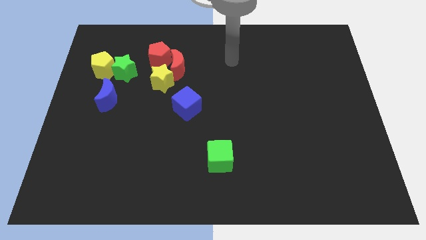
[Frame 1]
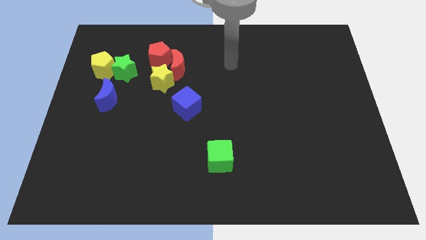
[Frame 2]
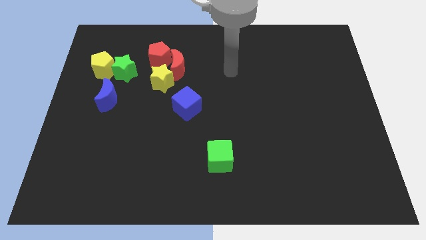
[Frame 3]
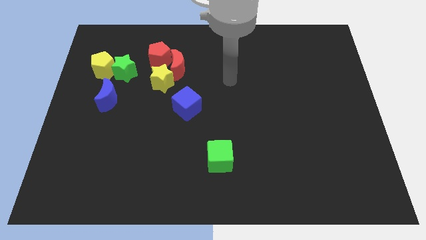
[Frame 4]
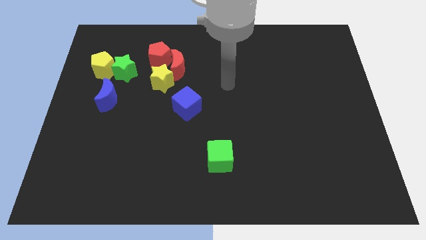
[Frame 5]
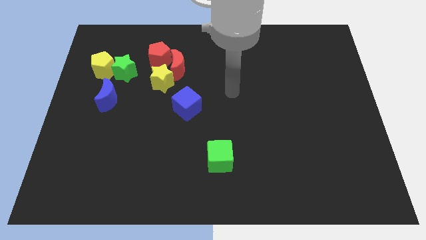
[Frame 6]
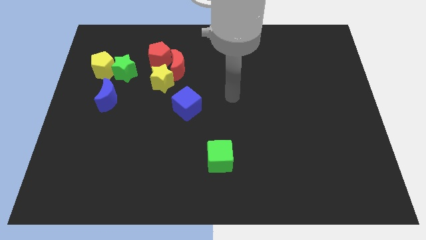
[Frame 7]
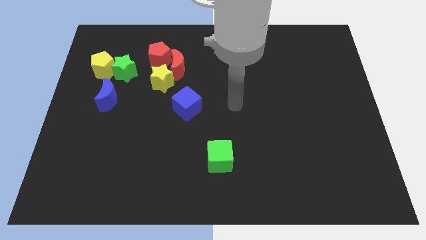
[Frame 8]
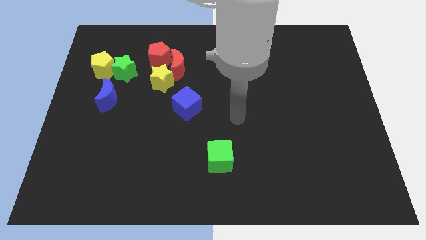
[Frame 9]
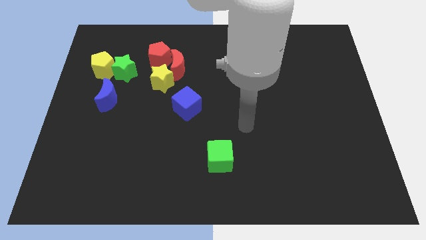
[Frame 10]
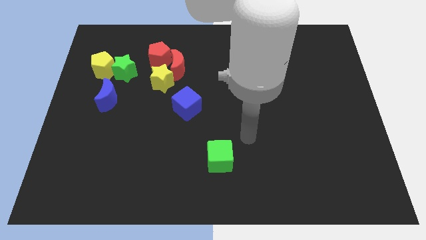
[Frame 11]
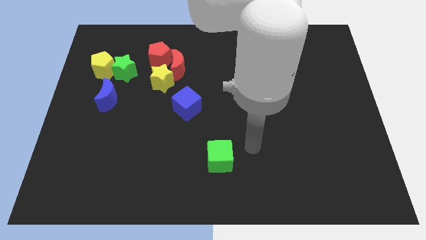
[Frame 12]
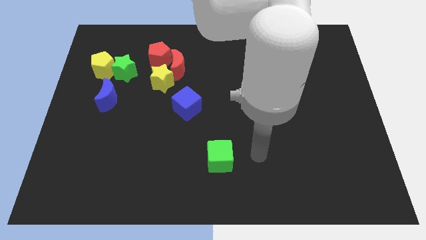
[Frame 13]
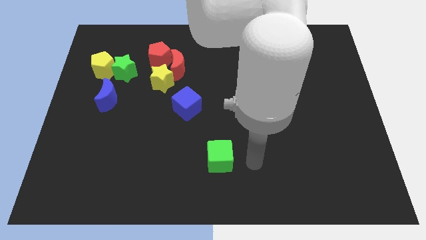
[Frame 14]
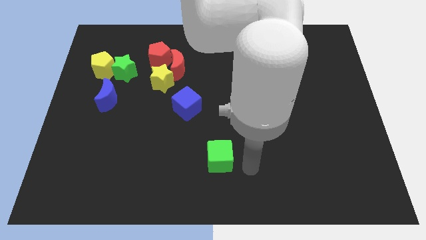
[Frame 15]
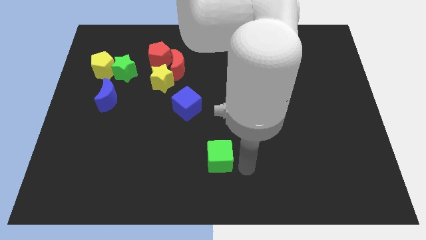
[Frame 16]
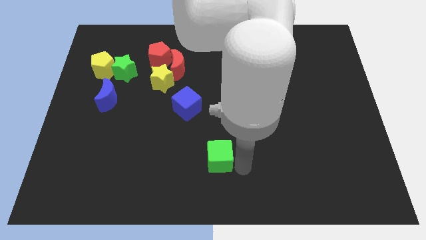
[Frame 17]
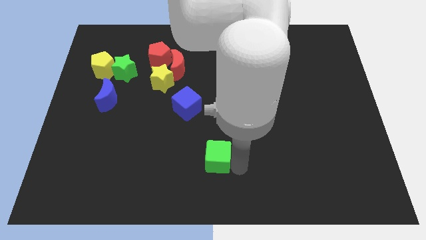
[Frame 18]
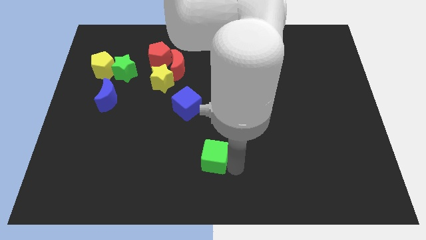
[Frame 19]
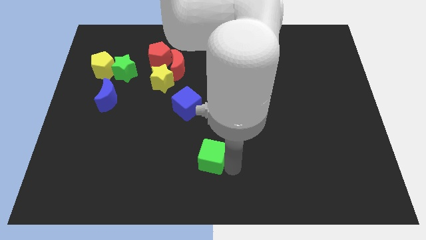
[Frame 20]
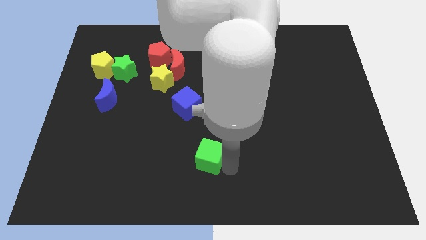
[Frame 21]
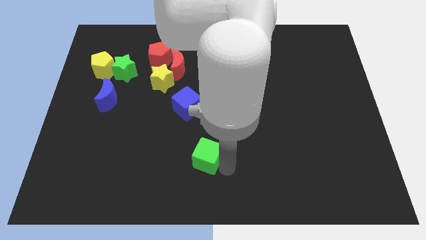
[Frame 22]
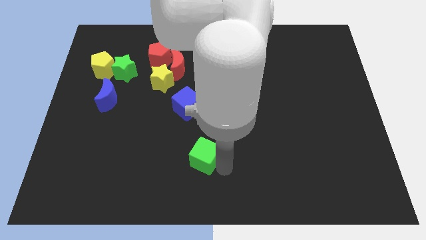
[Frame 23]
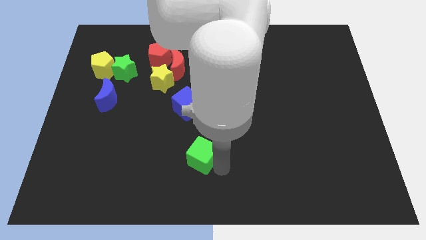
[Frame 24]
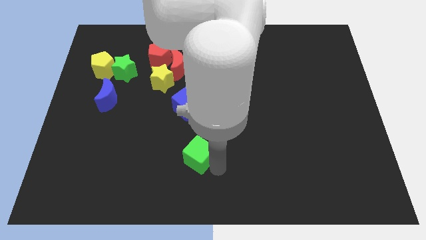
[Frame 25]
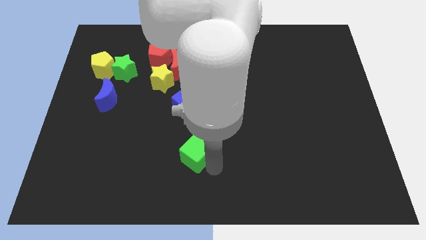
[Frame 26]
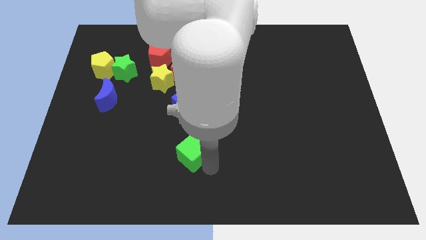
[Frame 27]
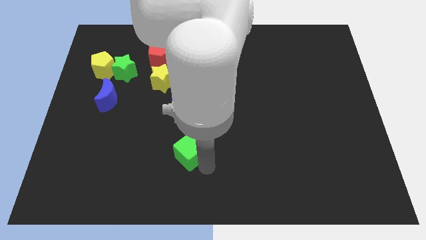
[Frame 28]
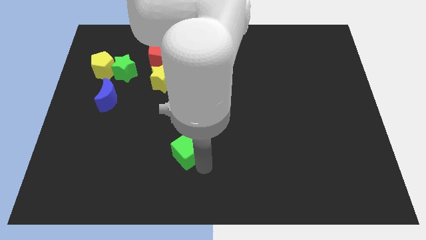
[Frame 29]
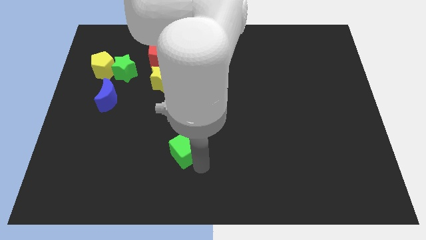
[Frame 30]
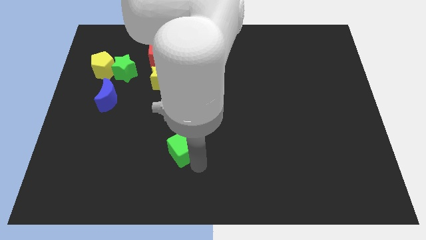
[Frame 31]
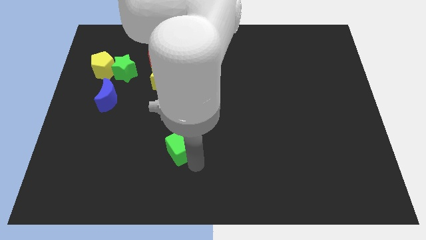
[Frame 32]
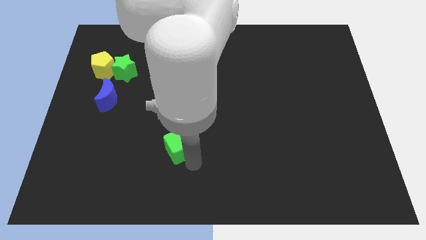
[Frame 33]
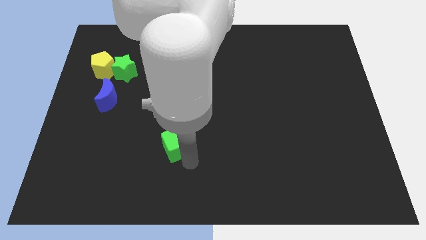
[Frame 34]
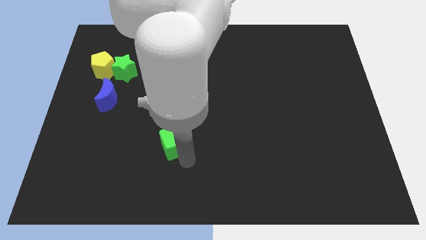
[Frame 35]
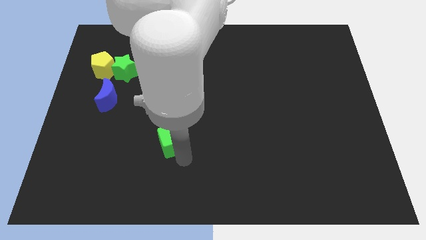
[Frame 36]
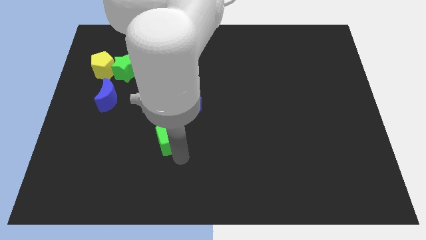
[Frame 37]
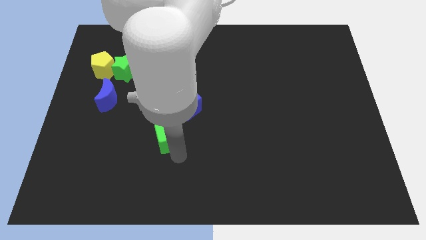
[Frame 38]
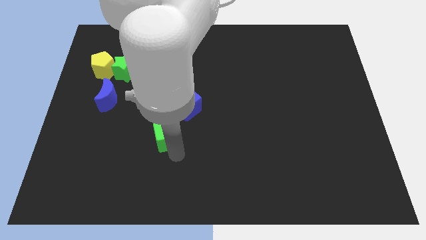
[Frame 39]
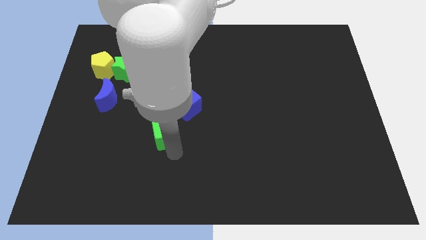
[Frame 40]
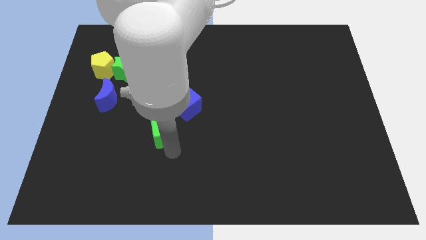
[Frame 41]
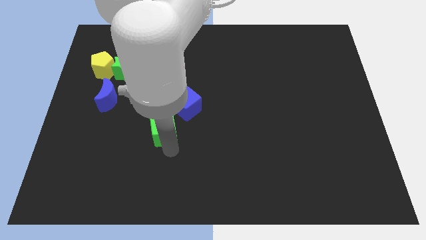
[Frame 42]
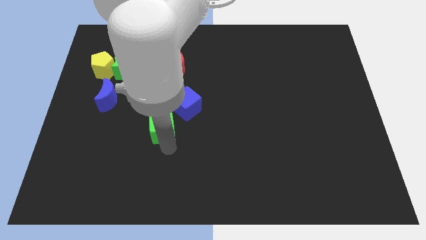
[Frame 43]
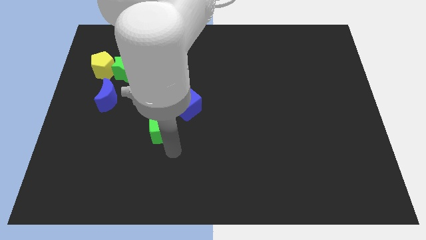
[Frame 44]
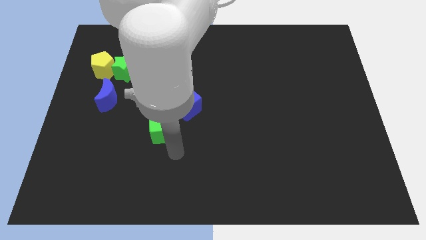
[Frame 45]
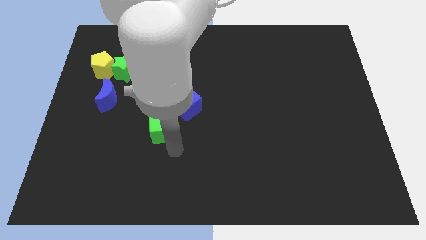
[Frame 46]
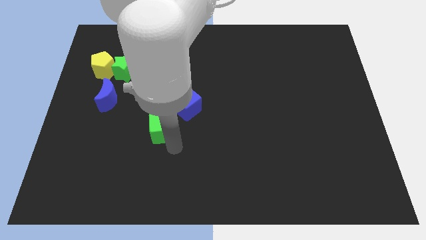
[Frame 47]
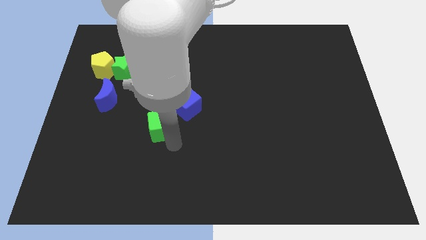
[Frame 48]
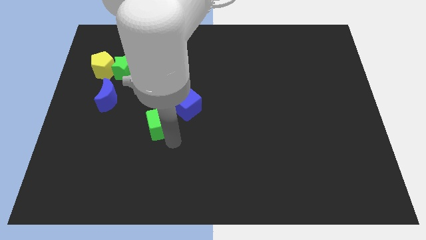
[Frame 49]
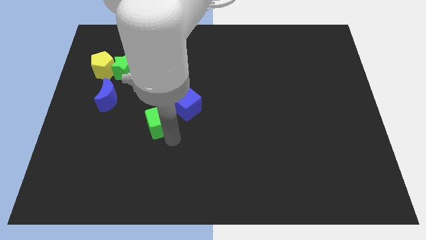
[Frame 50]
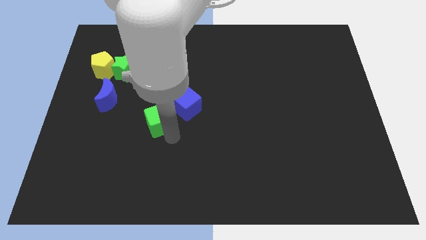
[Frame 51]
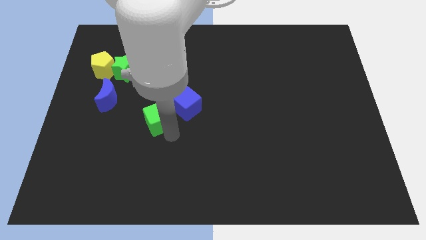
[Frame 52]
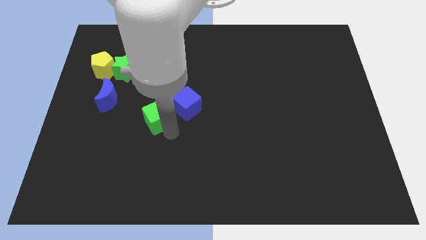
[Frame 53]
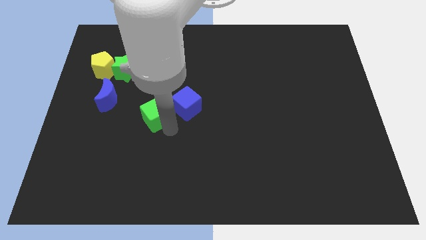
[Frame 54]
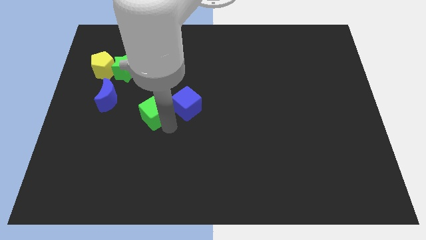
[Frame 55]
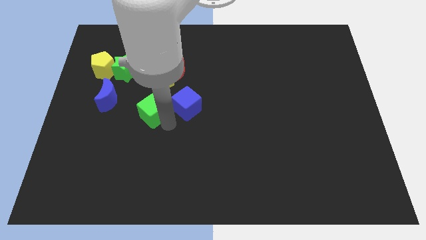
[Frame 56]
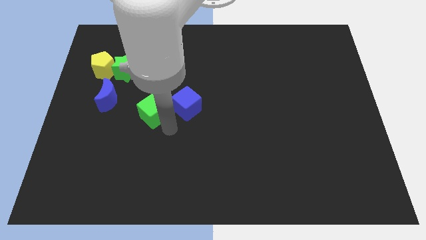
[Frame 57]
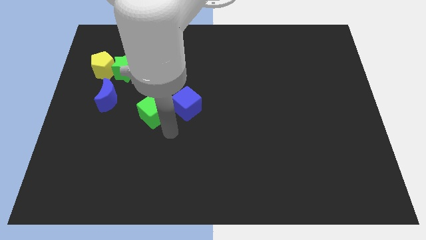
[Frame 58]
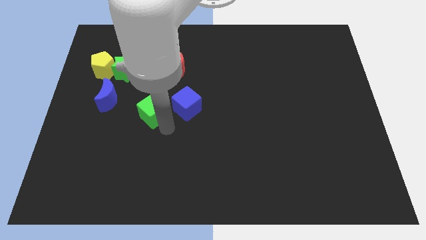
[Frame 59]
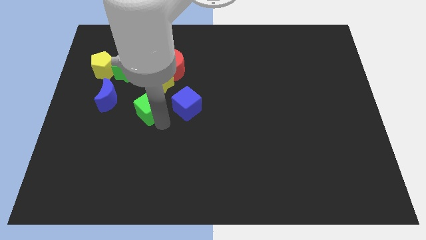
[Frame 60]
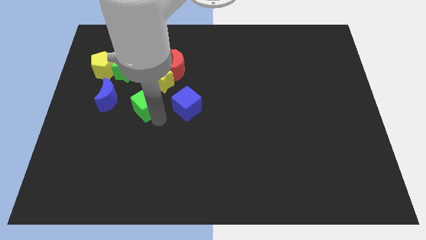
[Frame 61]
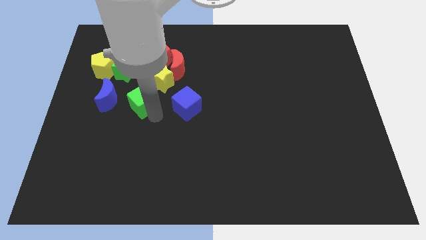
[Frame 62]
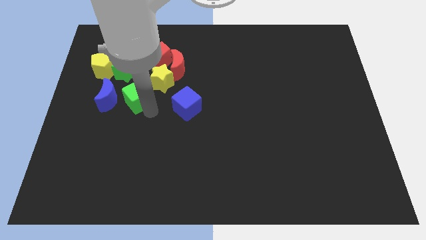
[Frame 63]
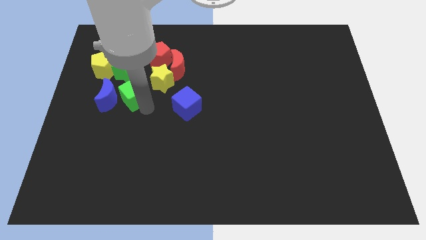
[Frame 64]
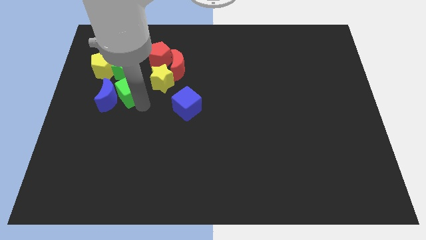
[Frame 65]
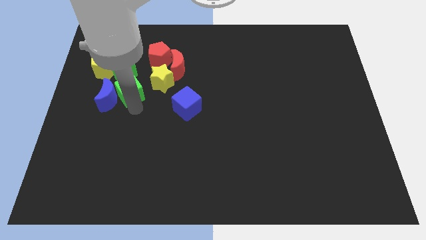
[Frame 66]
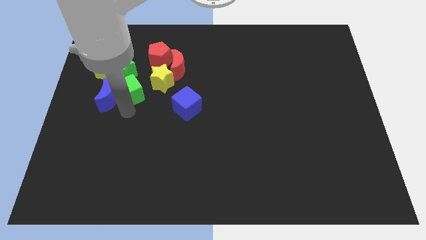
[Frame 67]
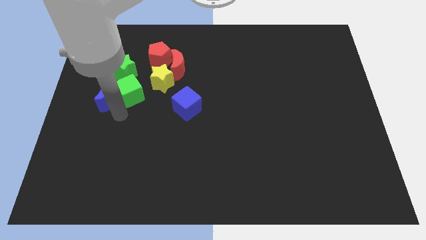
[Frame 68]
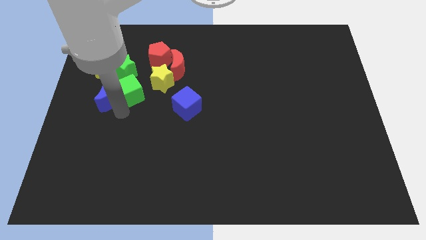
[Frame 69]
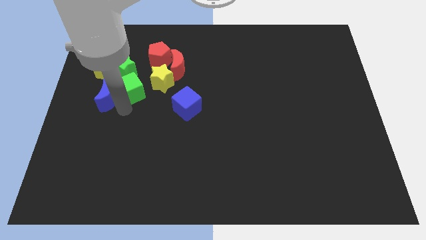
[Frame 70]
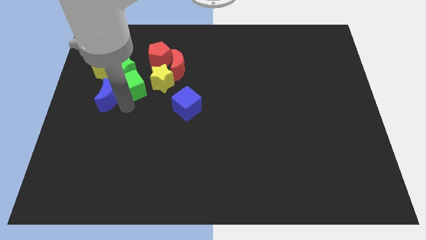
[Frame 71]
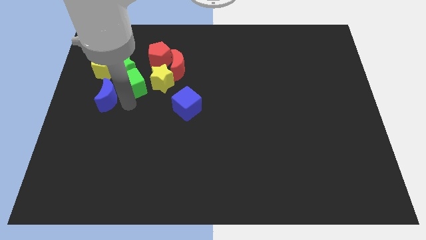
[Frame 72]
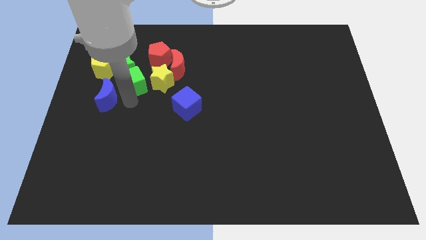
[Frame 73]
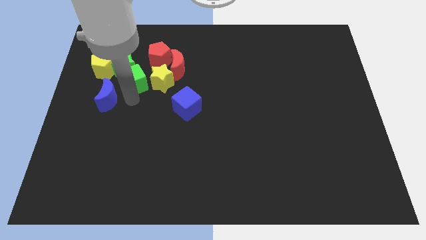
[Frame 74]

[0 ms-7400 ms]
put the green cube to the right of the yellow pentagon
